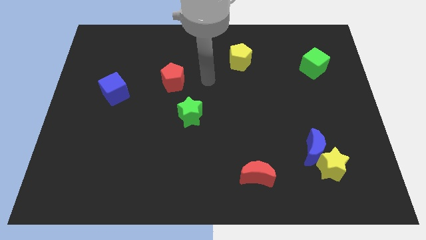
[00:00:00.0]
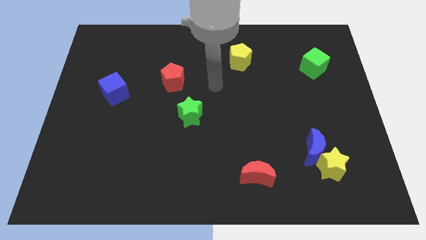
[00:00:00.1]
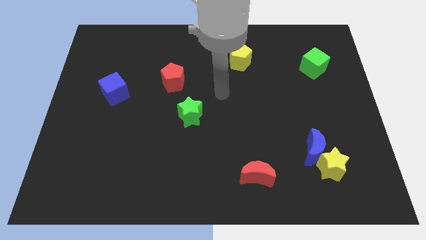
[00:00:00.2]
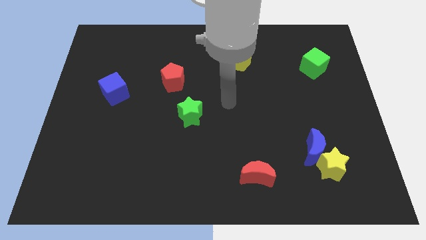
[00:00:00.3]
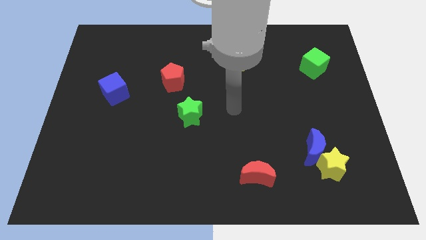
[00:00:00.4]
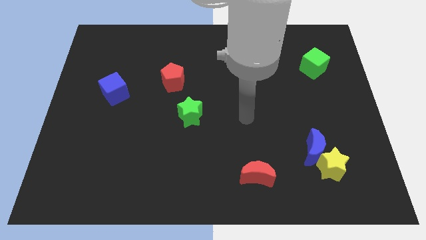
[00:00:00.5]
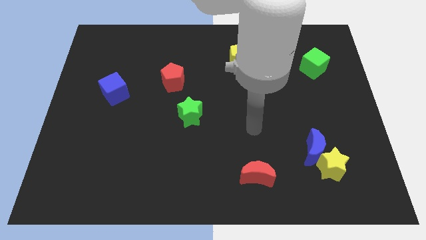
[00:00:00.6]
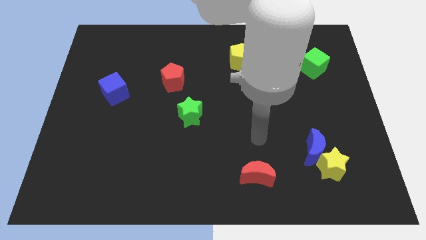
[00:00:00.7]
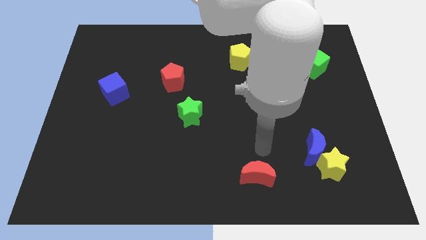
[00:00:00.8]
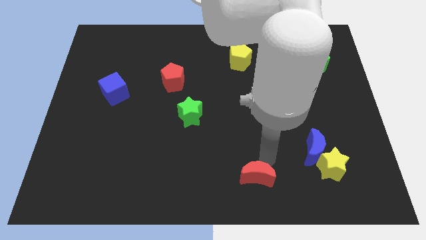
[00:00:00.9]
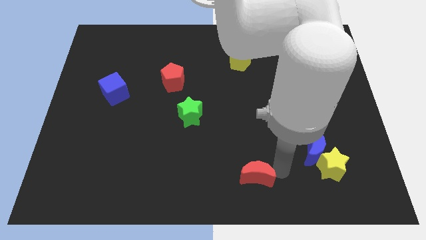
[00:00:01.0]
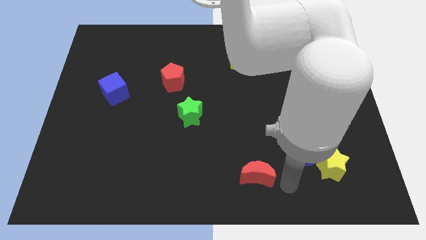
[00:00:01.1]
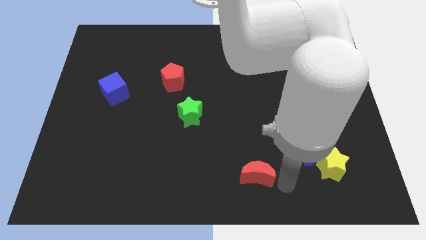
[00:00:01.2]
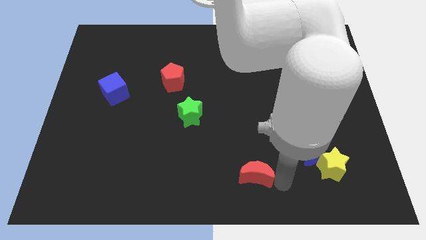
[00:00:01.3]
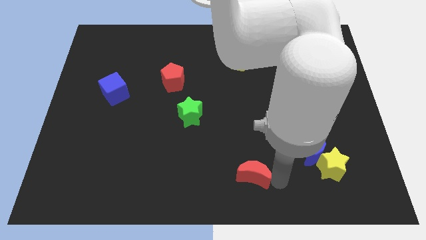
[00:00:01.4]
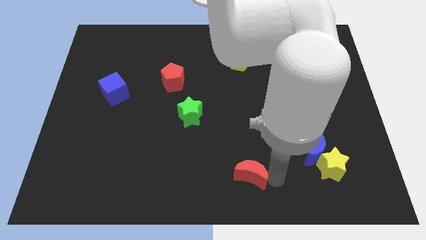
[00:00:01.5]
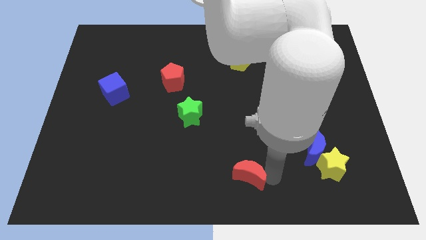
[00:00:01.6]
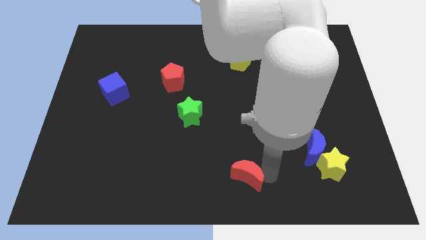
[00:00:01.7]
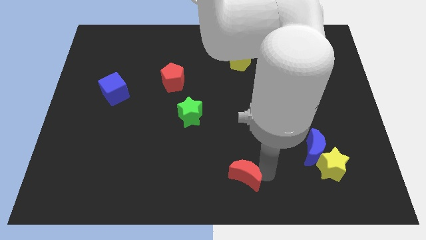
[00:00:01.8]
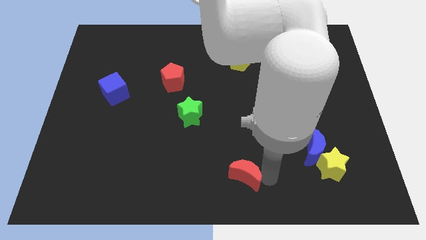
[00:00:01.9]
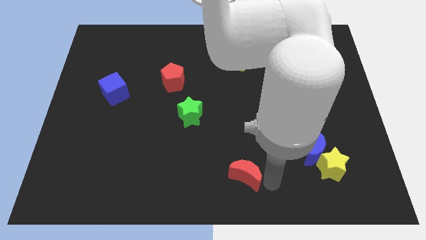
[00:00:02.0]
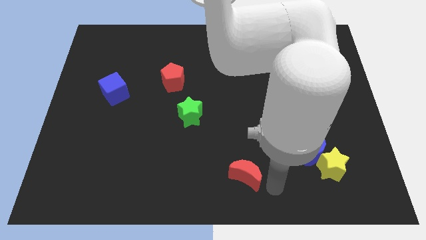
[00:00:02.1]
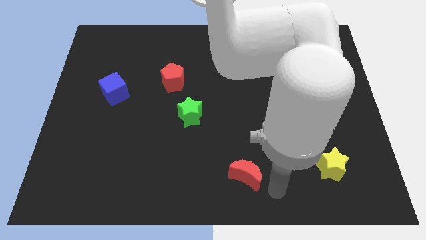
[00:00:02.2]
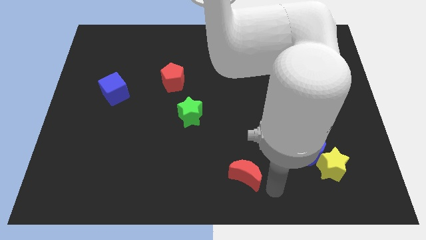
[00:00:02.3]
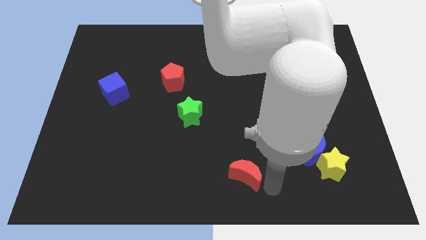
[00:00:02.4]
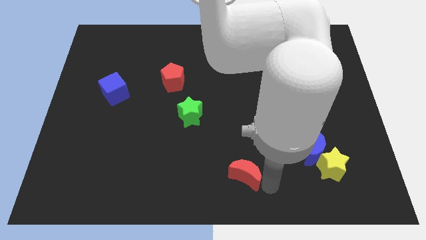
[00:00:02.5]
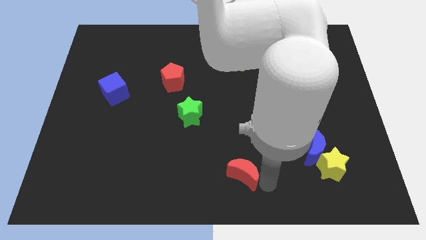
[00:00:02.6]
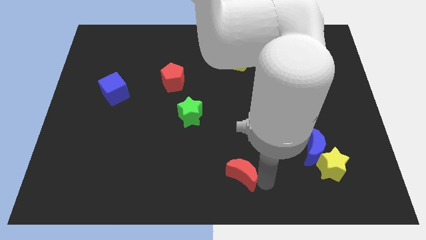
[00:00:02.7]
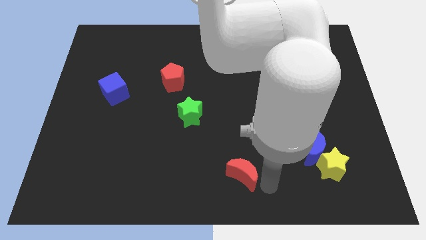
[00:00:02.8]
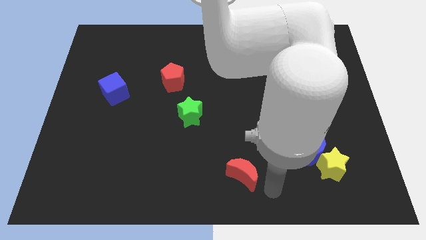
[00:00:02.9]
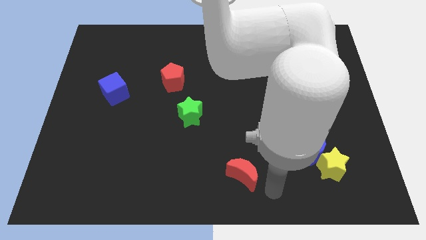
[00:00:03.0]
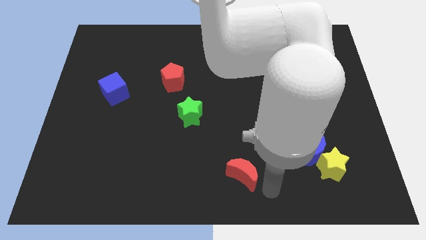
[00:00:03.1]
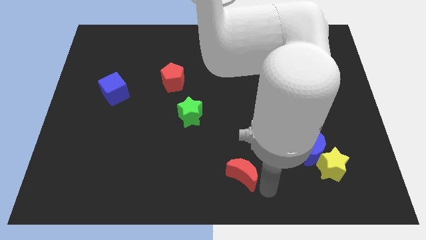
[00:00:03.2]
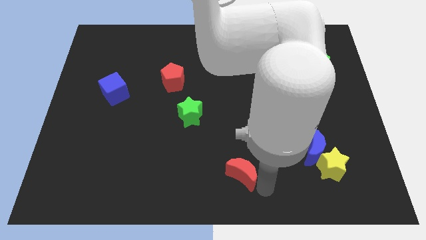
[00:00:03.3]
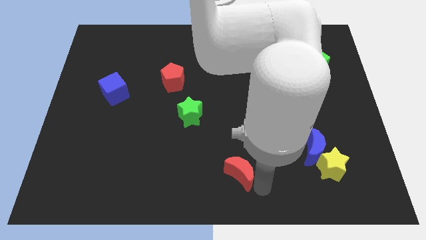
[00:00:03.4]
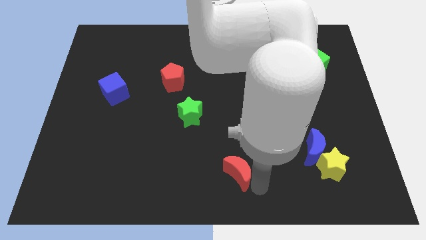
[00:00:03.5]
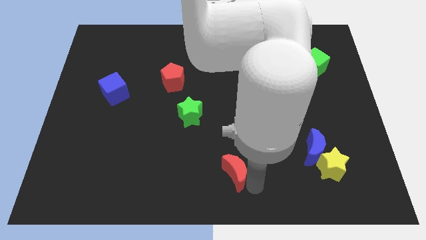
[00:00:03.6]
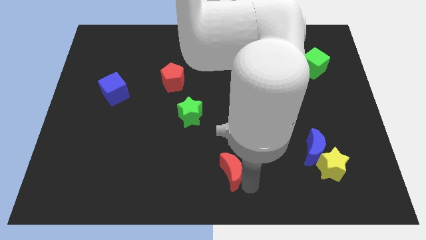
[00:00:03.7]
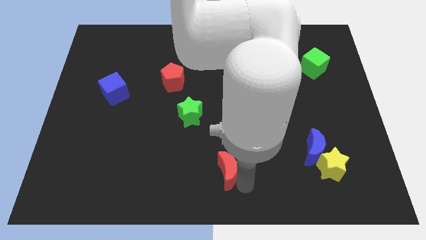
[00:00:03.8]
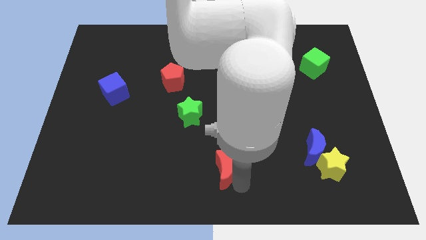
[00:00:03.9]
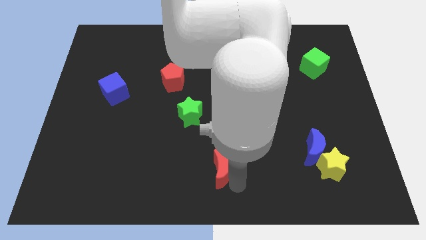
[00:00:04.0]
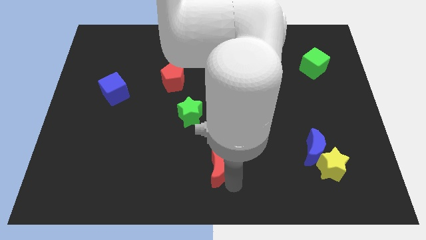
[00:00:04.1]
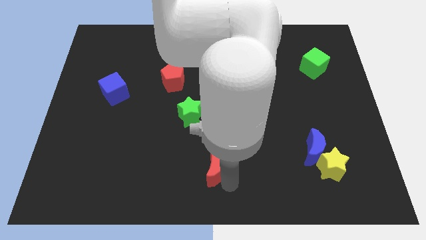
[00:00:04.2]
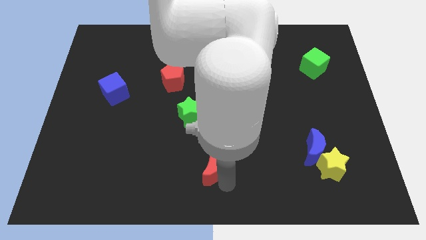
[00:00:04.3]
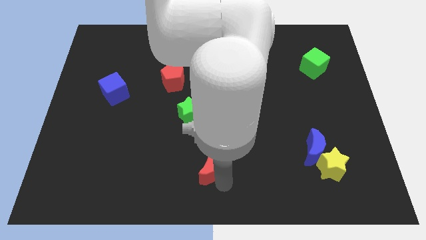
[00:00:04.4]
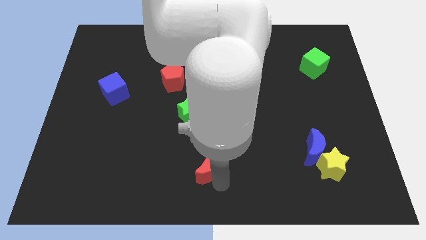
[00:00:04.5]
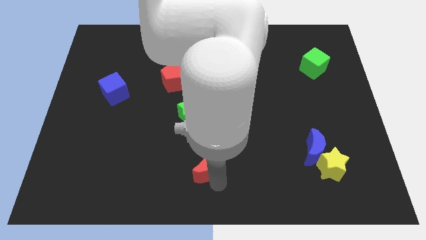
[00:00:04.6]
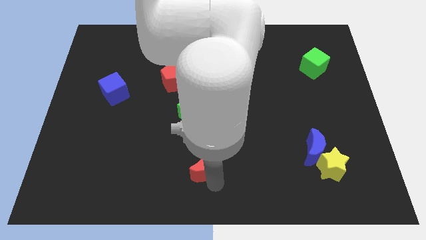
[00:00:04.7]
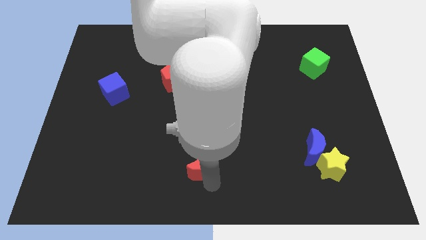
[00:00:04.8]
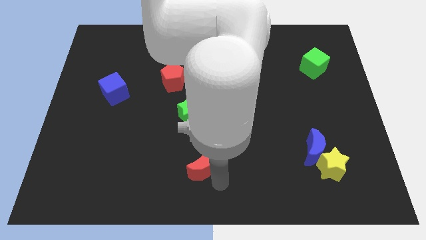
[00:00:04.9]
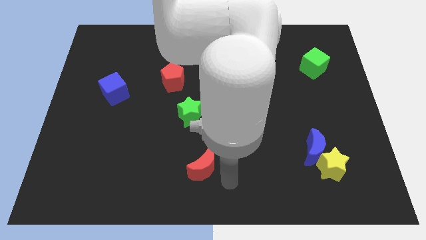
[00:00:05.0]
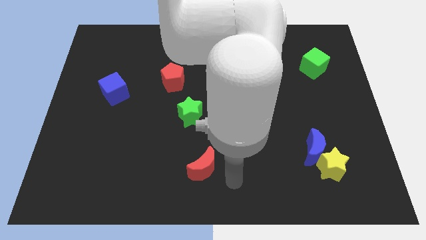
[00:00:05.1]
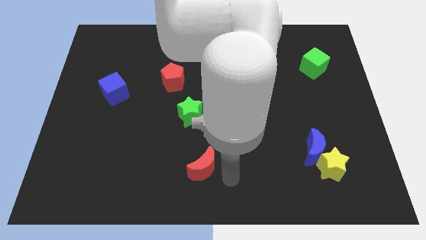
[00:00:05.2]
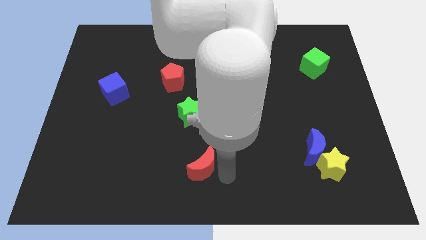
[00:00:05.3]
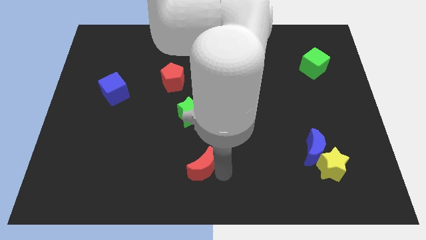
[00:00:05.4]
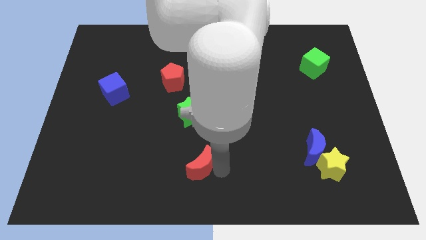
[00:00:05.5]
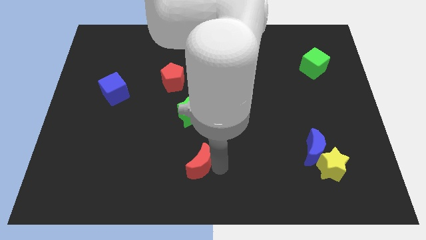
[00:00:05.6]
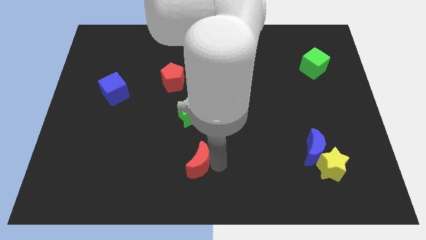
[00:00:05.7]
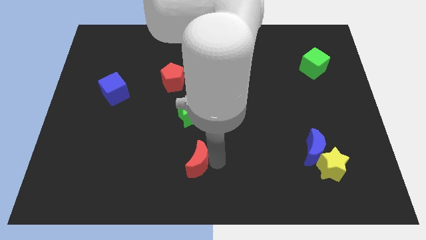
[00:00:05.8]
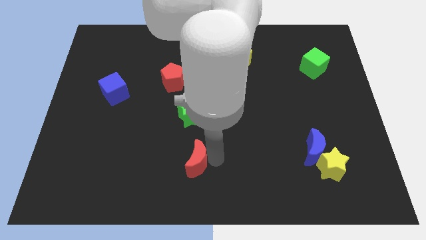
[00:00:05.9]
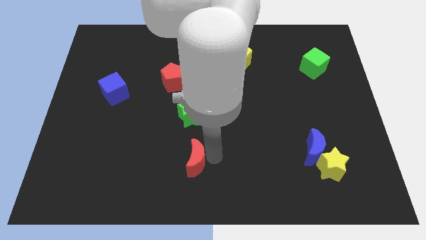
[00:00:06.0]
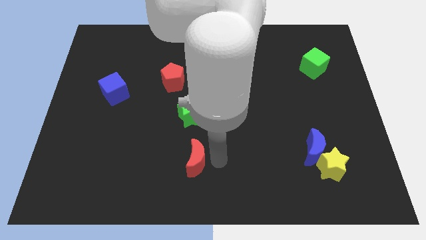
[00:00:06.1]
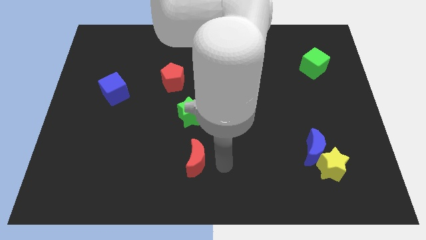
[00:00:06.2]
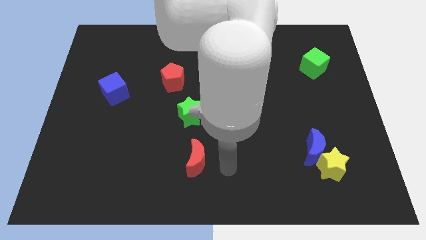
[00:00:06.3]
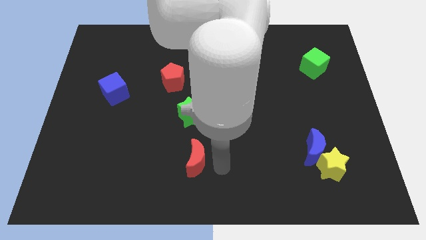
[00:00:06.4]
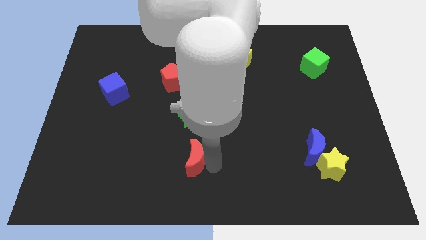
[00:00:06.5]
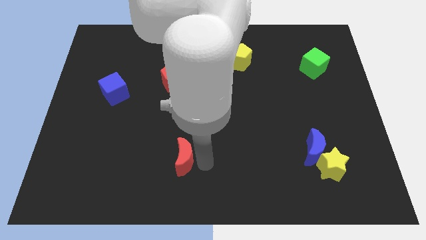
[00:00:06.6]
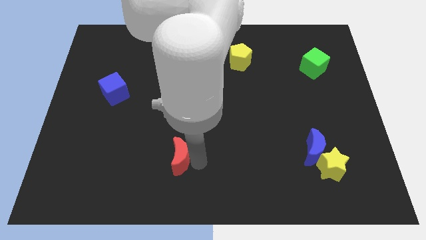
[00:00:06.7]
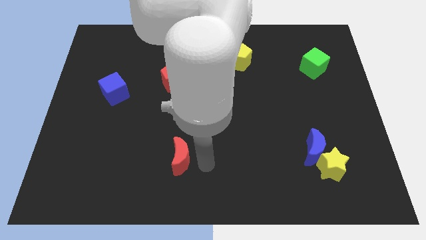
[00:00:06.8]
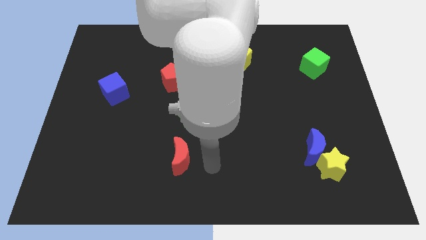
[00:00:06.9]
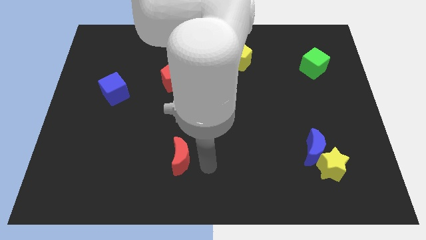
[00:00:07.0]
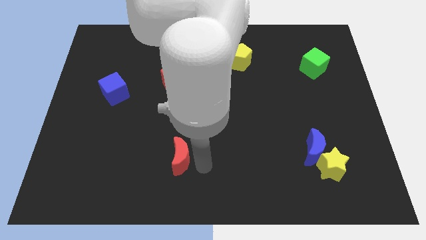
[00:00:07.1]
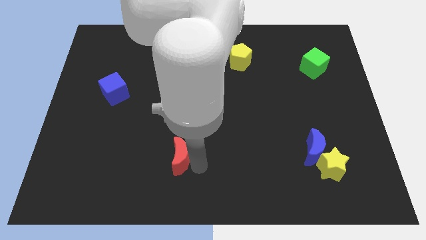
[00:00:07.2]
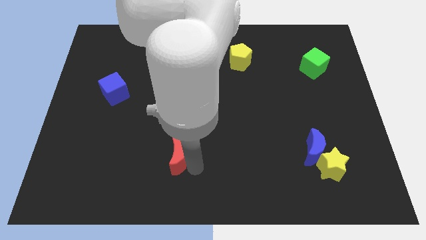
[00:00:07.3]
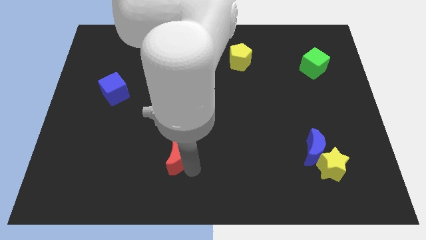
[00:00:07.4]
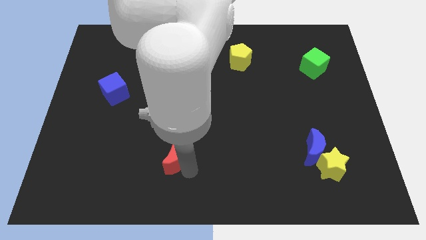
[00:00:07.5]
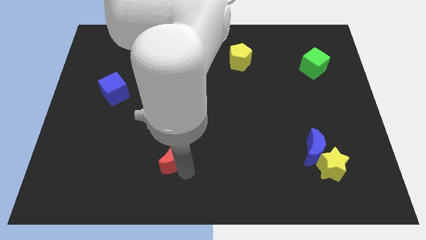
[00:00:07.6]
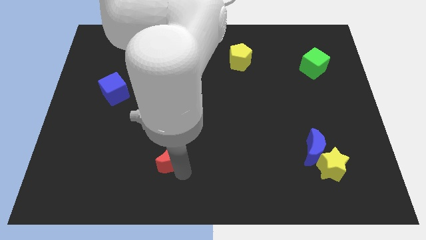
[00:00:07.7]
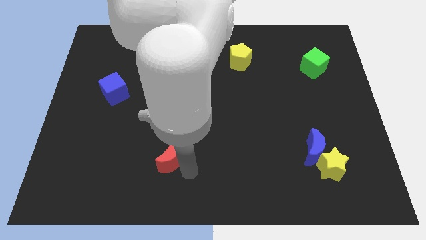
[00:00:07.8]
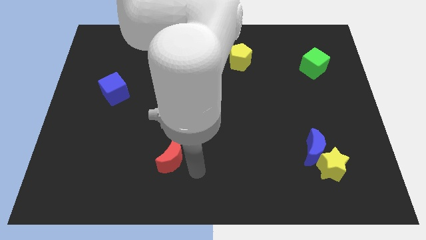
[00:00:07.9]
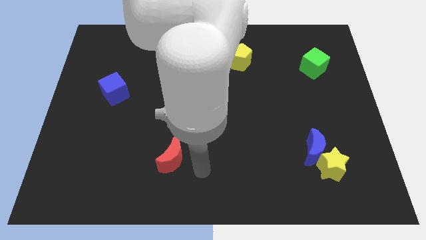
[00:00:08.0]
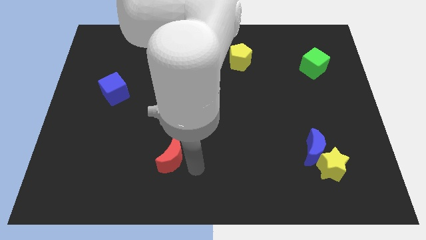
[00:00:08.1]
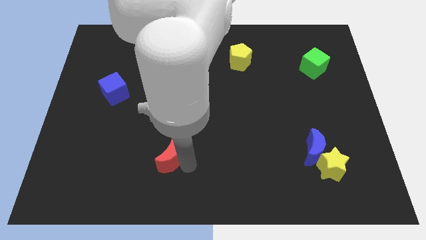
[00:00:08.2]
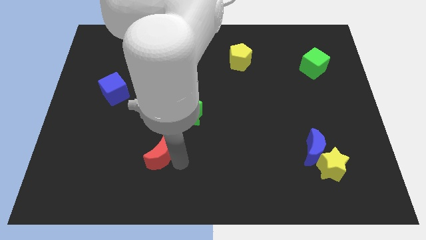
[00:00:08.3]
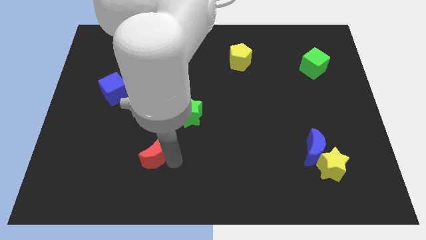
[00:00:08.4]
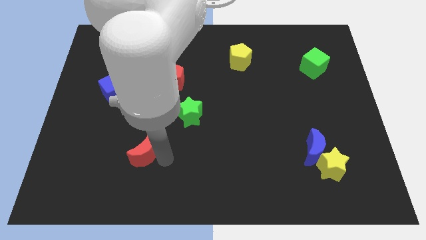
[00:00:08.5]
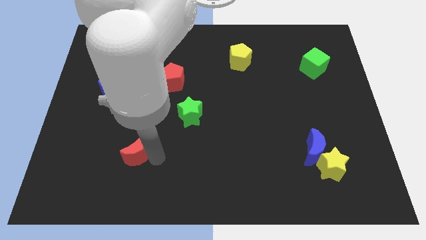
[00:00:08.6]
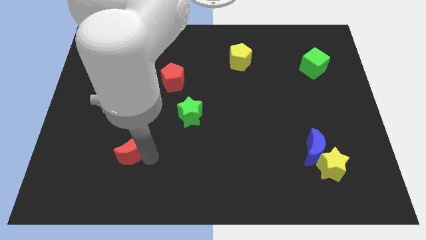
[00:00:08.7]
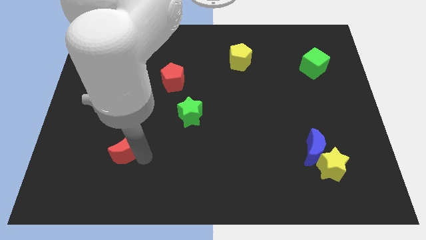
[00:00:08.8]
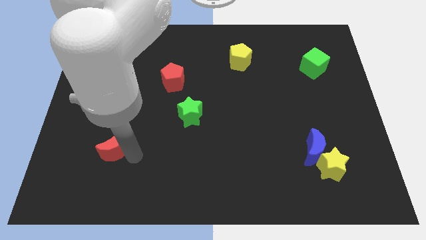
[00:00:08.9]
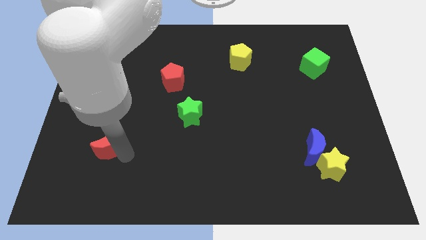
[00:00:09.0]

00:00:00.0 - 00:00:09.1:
slide the red moon below the blue cube
